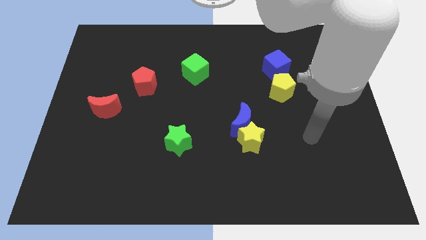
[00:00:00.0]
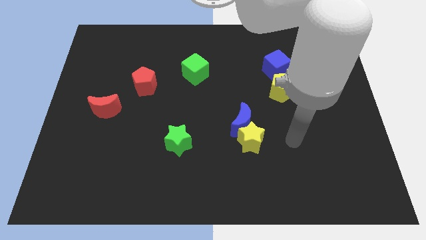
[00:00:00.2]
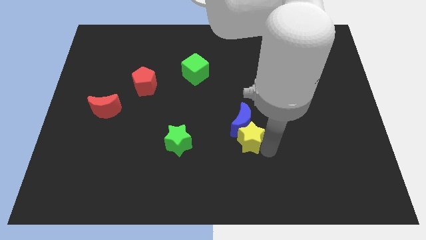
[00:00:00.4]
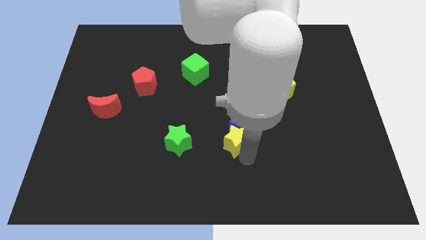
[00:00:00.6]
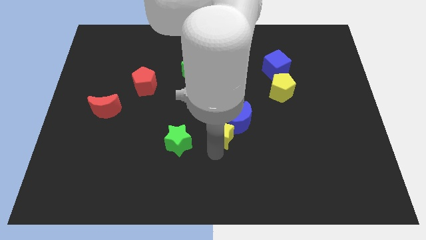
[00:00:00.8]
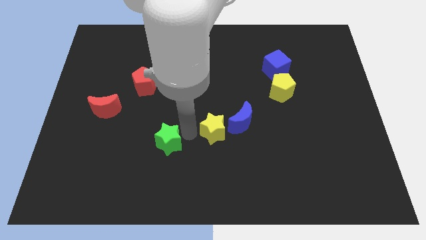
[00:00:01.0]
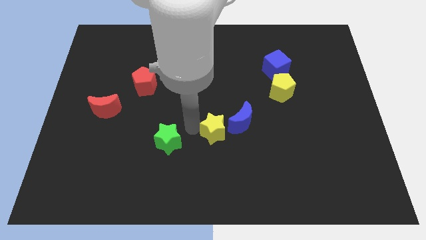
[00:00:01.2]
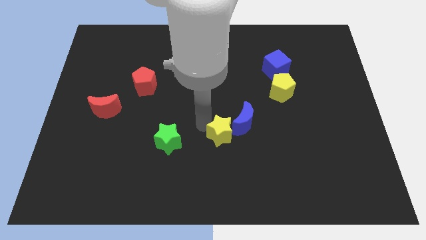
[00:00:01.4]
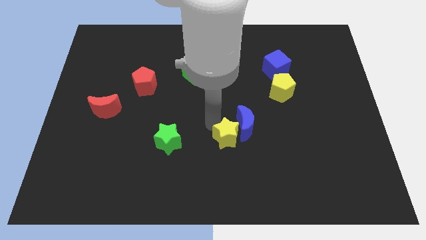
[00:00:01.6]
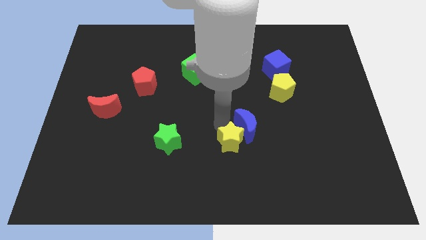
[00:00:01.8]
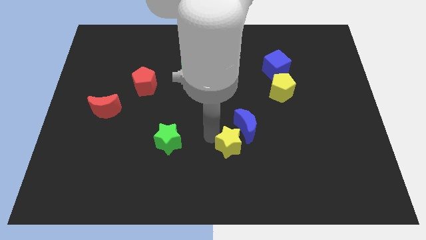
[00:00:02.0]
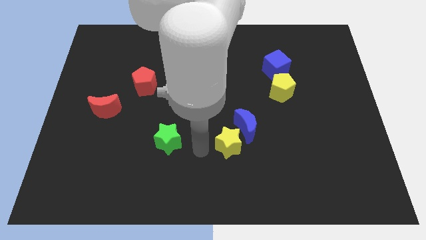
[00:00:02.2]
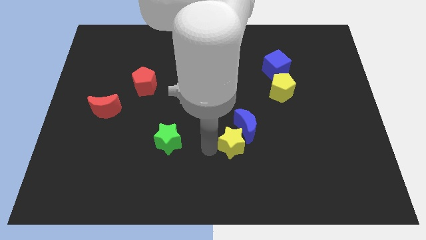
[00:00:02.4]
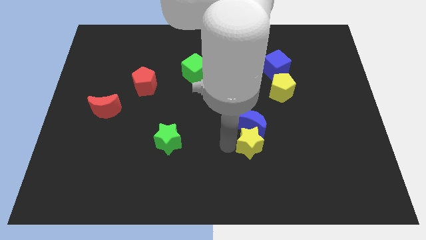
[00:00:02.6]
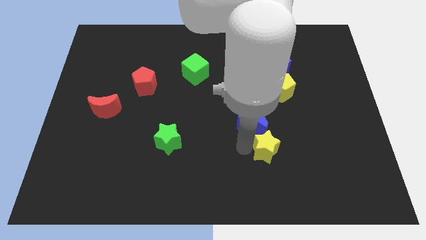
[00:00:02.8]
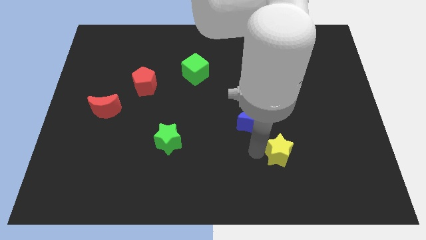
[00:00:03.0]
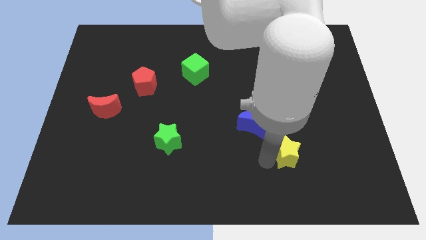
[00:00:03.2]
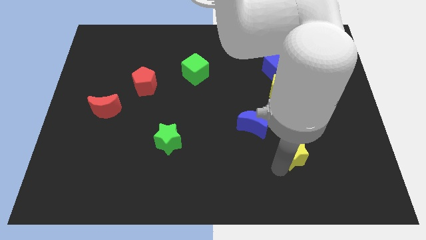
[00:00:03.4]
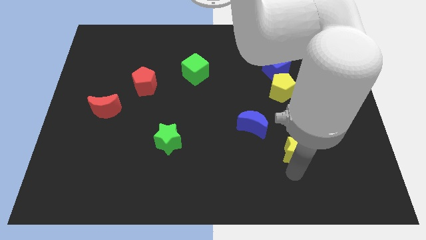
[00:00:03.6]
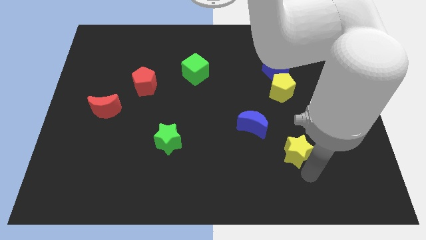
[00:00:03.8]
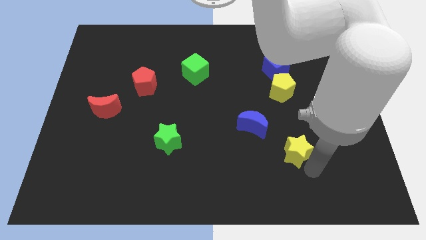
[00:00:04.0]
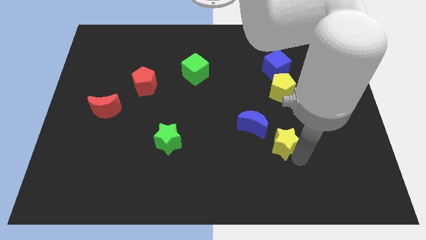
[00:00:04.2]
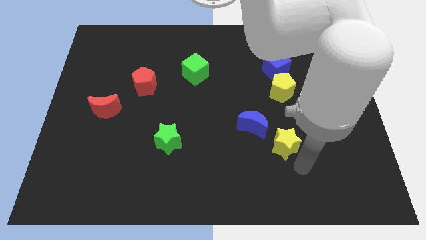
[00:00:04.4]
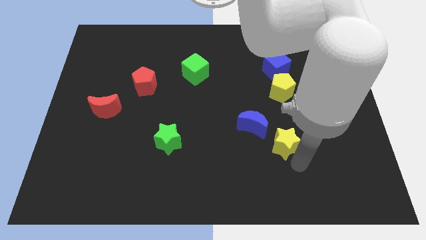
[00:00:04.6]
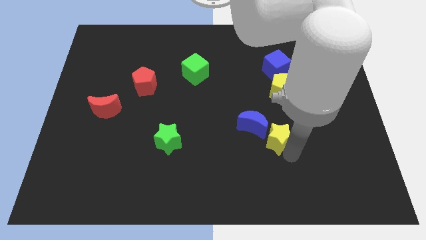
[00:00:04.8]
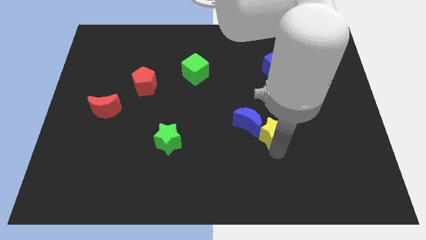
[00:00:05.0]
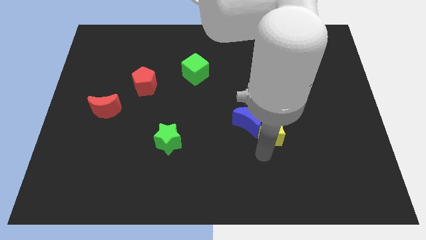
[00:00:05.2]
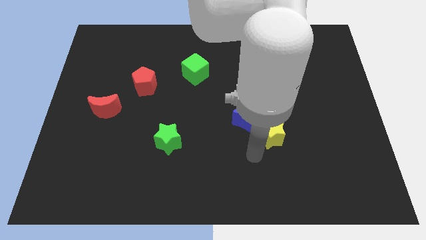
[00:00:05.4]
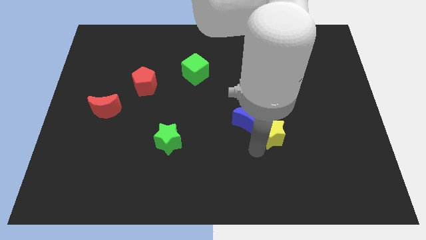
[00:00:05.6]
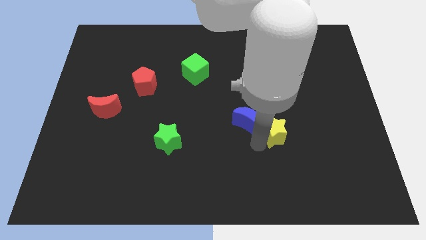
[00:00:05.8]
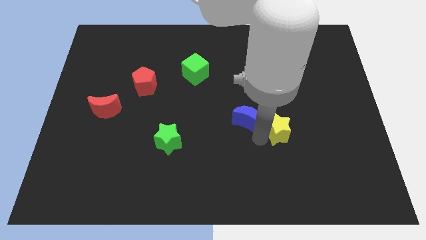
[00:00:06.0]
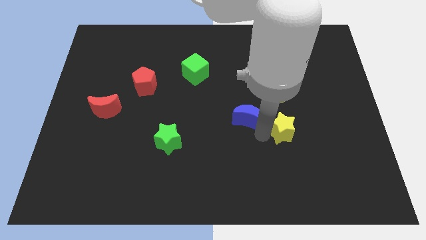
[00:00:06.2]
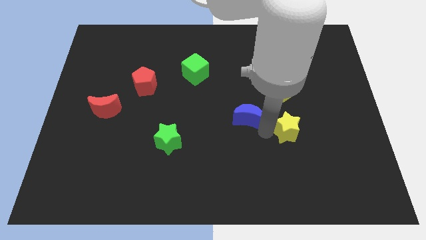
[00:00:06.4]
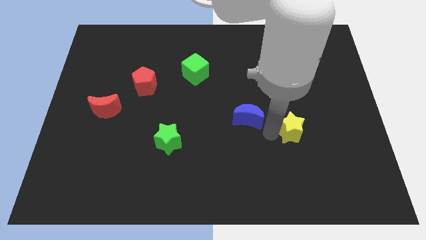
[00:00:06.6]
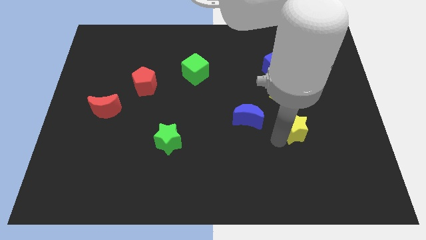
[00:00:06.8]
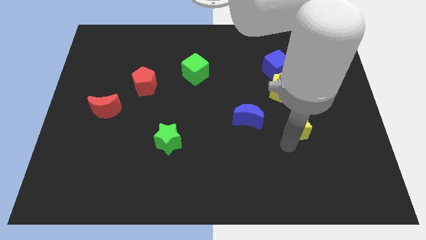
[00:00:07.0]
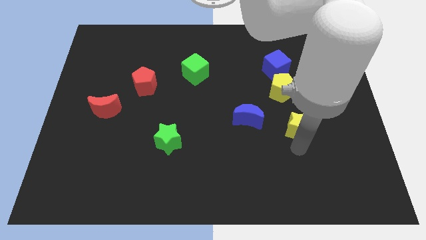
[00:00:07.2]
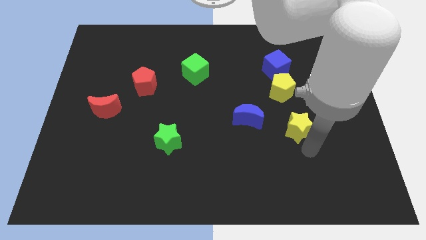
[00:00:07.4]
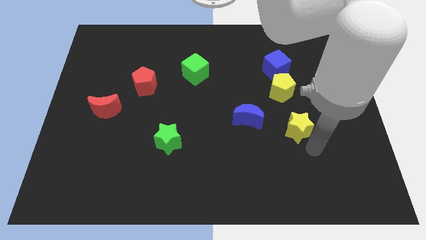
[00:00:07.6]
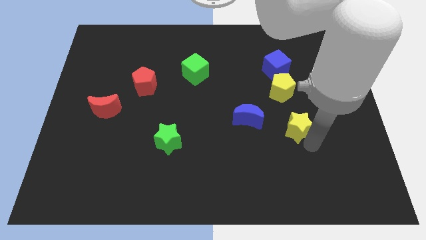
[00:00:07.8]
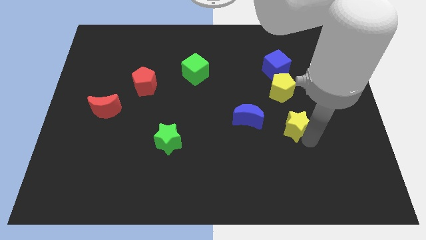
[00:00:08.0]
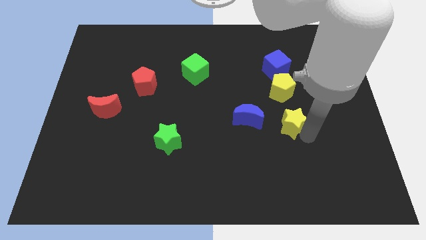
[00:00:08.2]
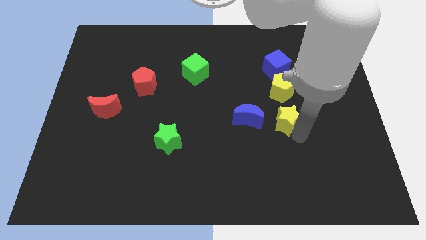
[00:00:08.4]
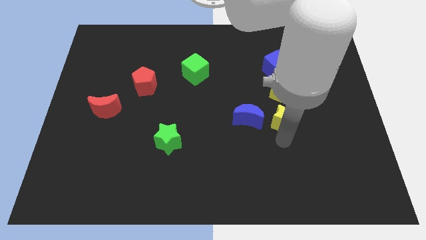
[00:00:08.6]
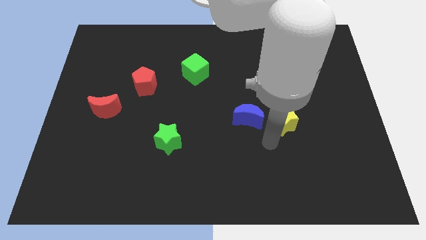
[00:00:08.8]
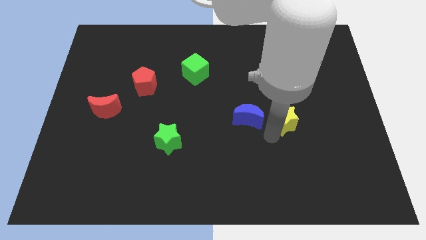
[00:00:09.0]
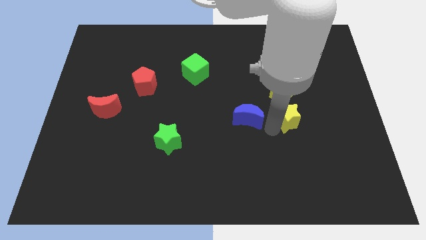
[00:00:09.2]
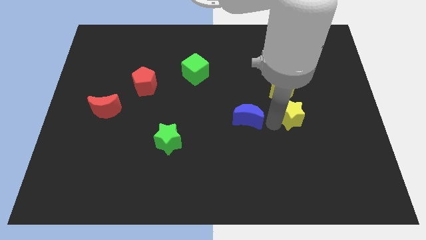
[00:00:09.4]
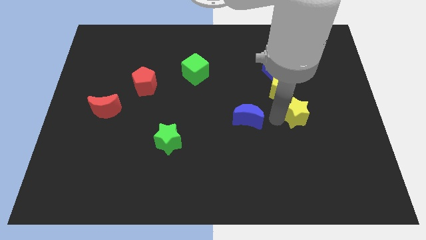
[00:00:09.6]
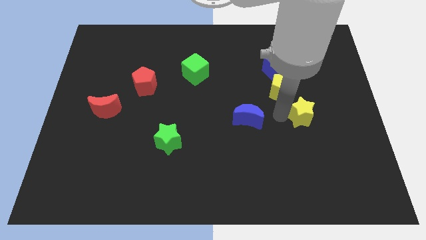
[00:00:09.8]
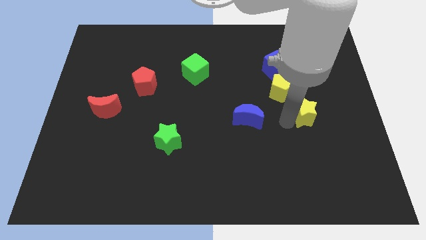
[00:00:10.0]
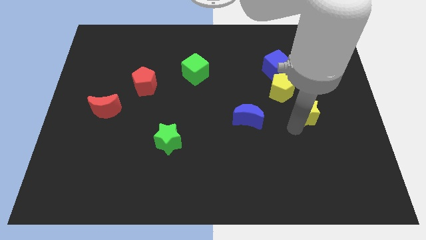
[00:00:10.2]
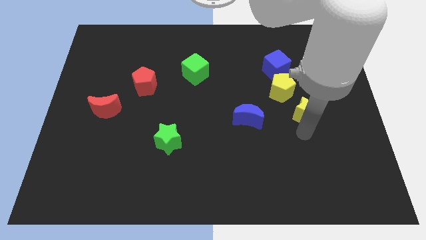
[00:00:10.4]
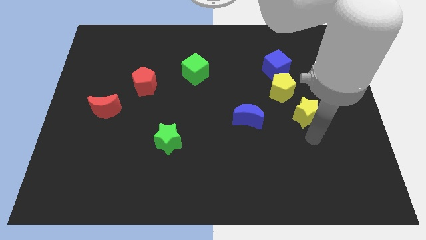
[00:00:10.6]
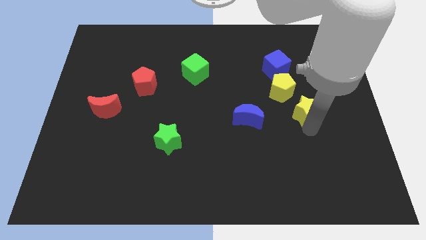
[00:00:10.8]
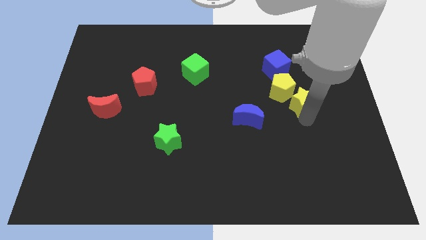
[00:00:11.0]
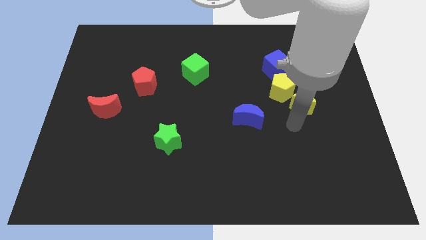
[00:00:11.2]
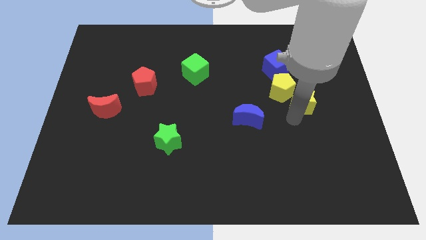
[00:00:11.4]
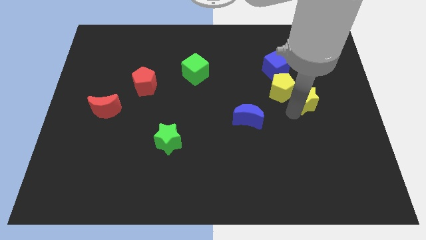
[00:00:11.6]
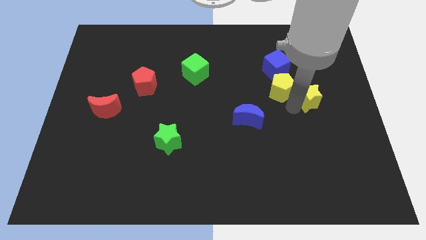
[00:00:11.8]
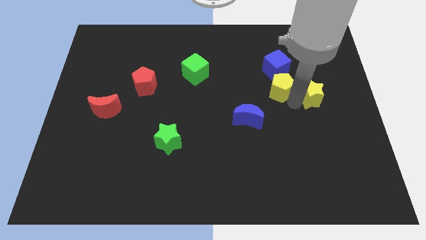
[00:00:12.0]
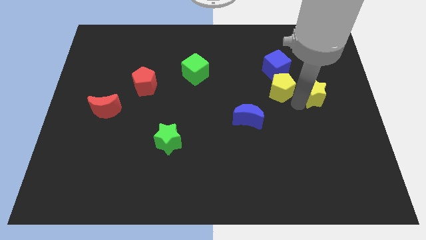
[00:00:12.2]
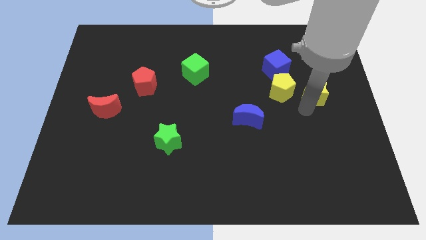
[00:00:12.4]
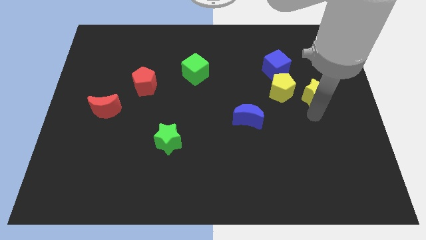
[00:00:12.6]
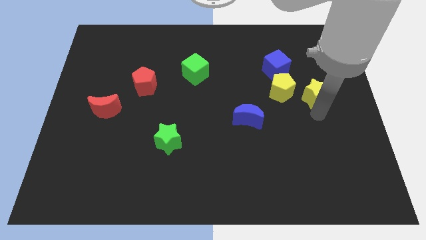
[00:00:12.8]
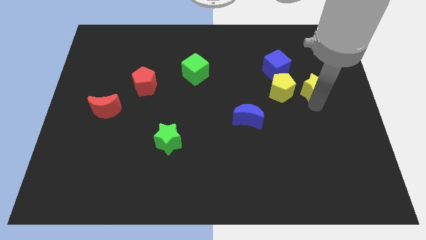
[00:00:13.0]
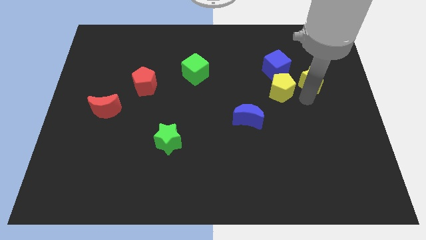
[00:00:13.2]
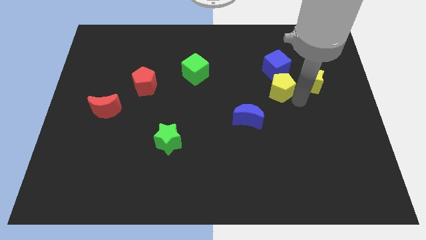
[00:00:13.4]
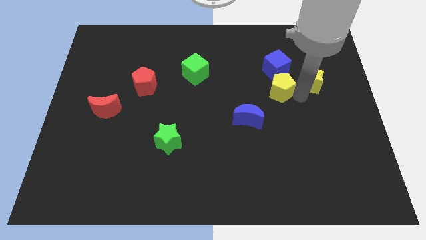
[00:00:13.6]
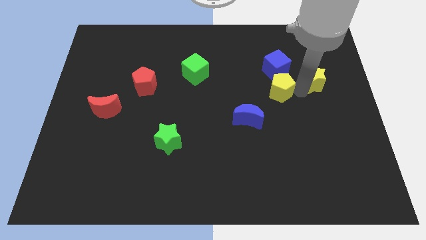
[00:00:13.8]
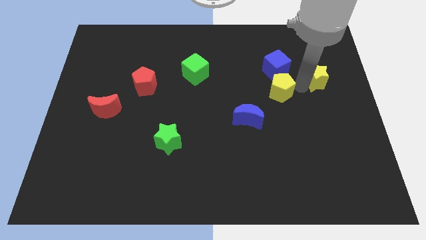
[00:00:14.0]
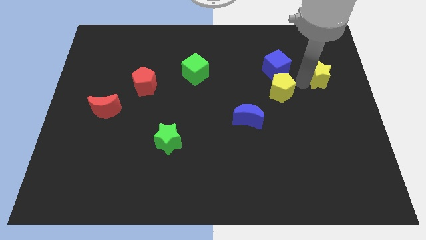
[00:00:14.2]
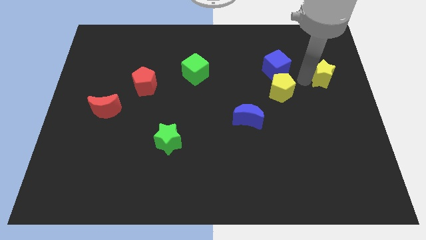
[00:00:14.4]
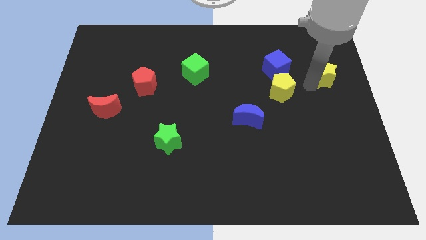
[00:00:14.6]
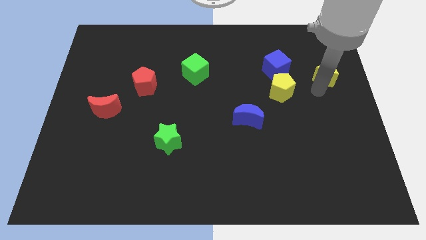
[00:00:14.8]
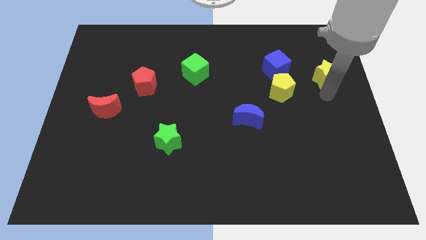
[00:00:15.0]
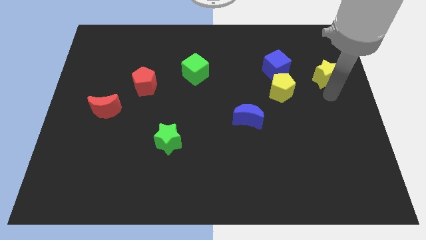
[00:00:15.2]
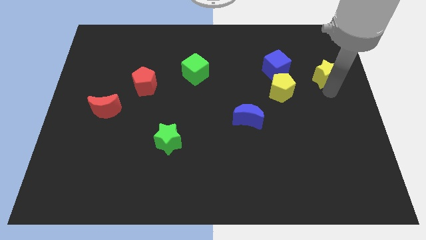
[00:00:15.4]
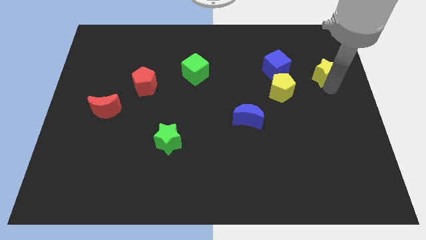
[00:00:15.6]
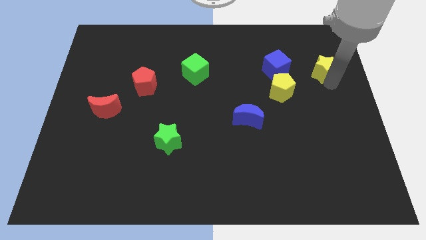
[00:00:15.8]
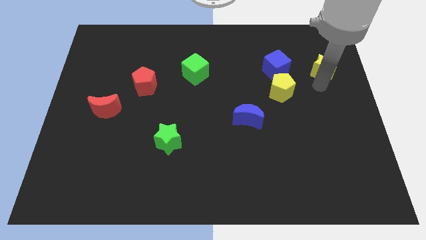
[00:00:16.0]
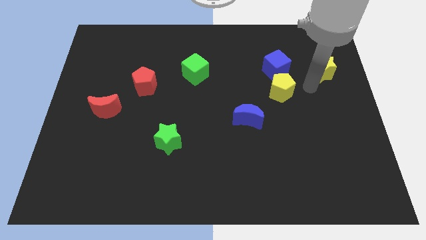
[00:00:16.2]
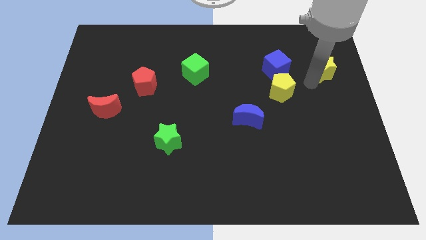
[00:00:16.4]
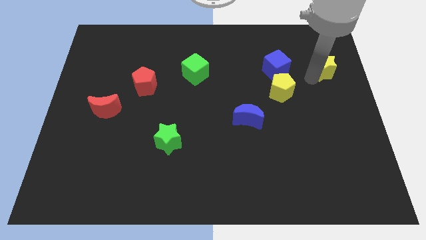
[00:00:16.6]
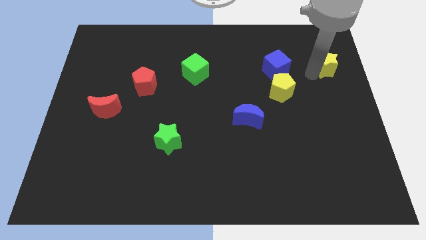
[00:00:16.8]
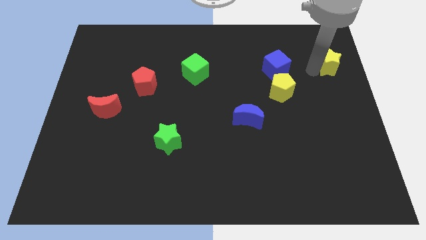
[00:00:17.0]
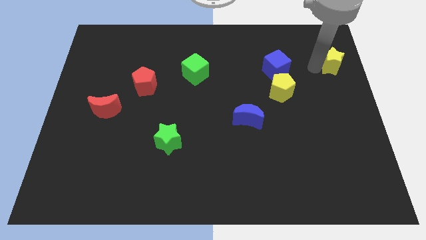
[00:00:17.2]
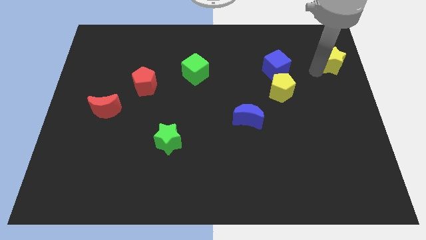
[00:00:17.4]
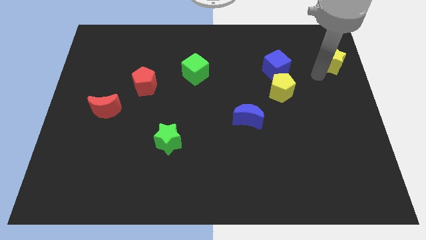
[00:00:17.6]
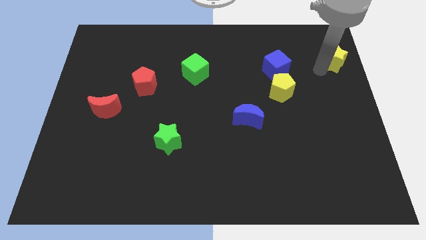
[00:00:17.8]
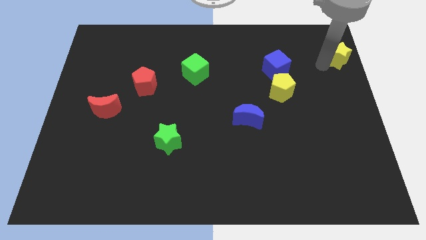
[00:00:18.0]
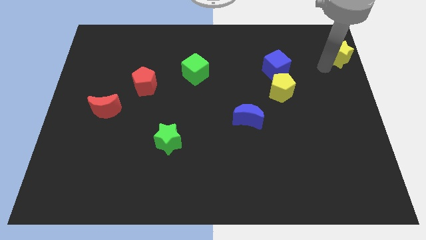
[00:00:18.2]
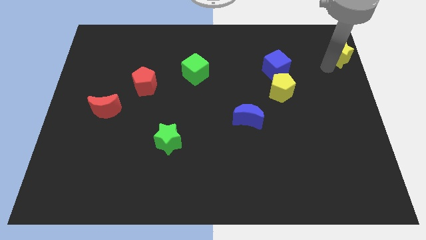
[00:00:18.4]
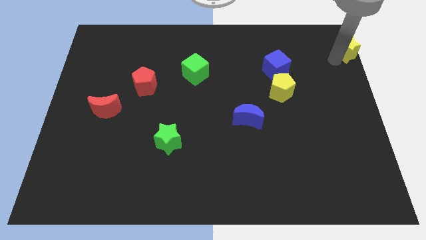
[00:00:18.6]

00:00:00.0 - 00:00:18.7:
put the yellow star to the top right corner
